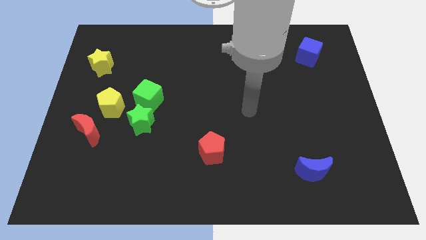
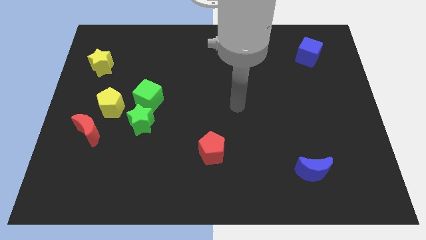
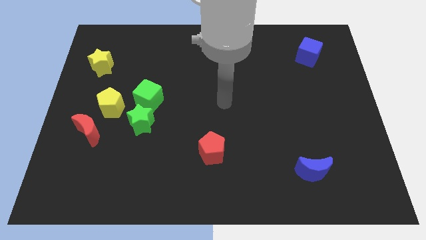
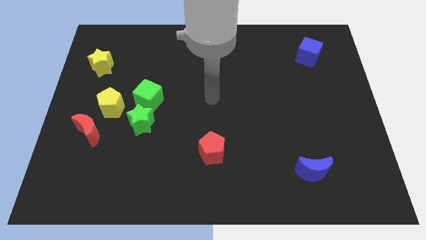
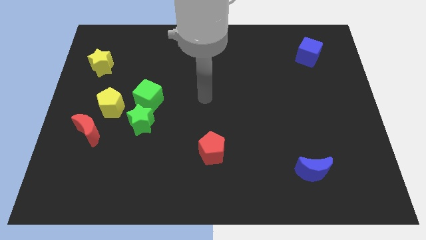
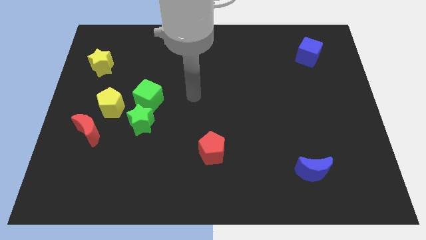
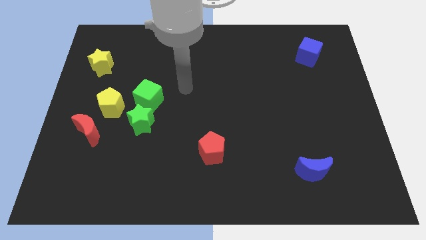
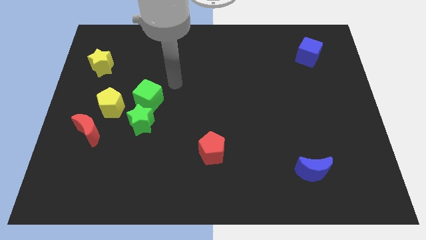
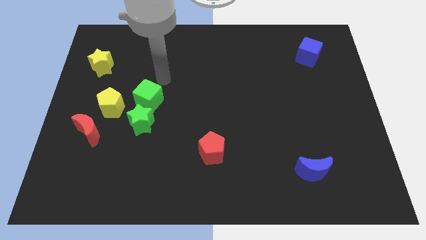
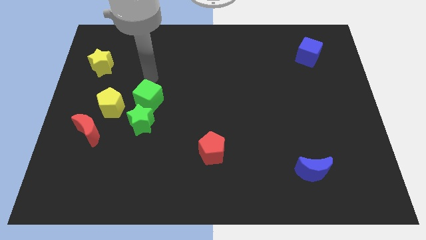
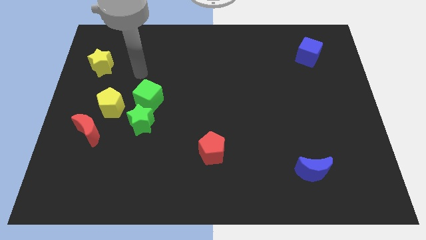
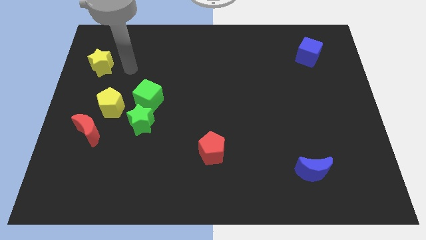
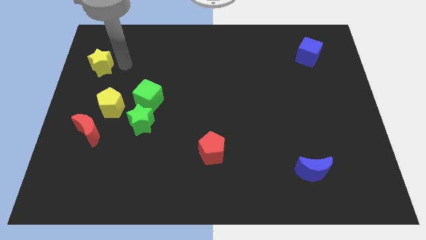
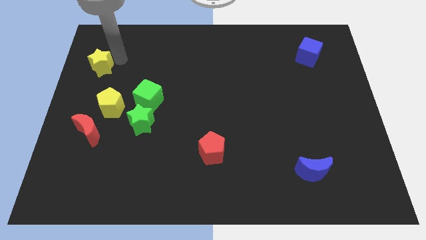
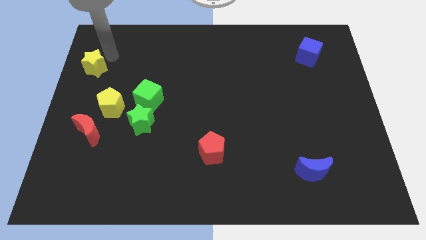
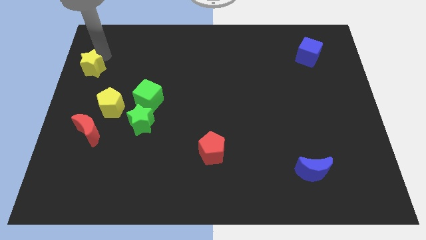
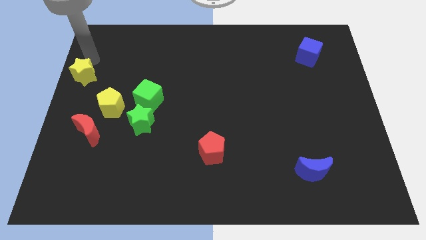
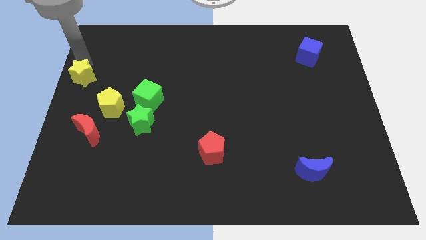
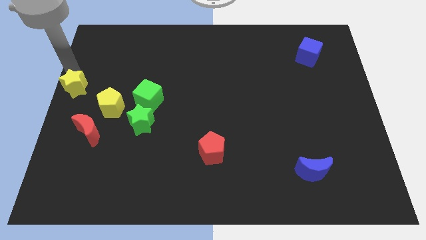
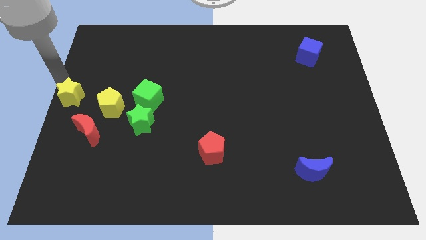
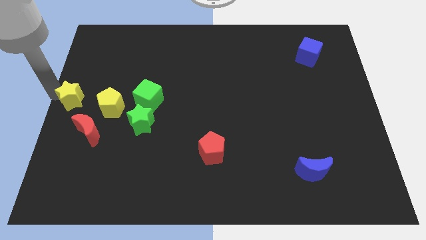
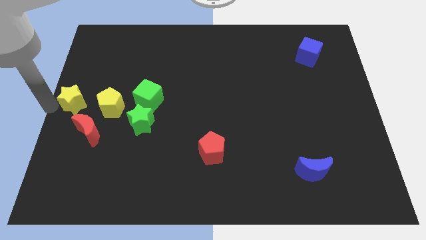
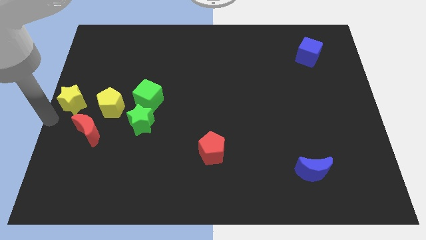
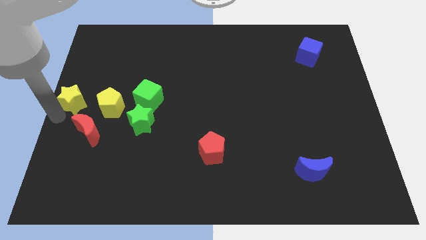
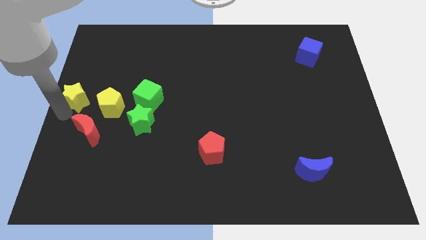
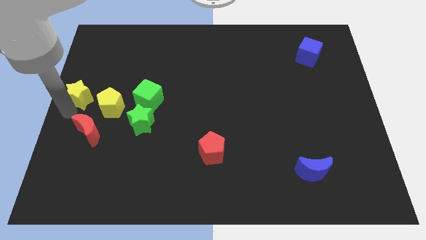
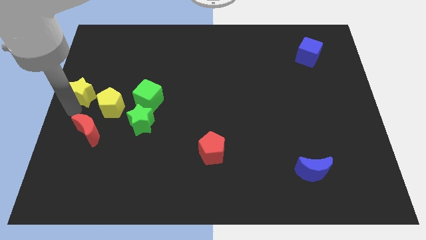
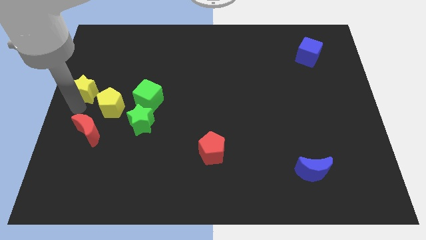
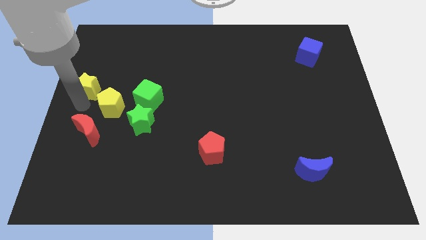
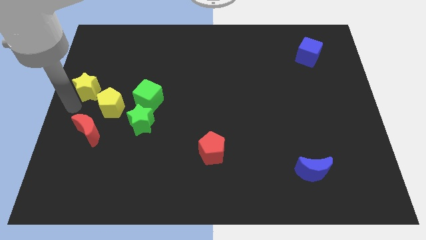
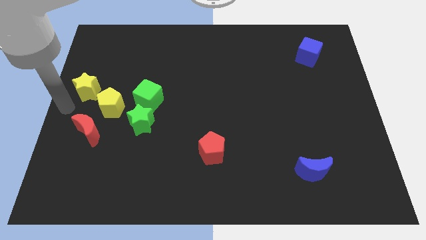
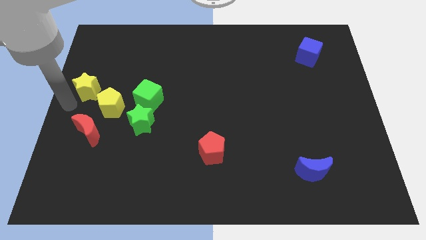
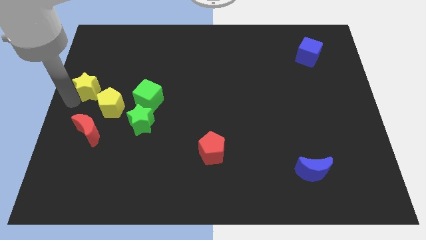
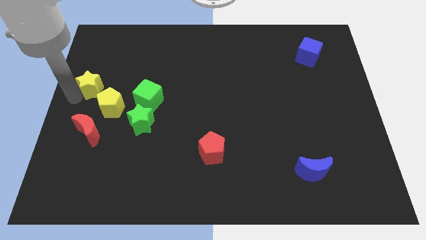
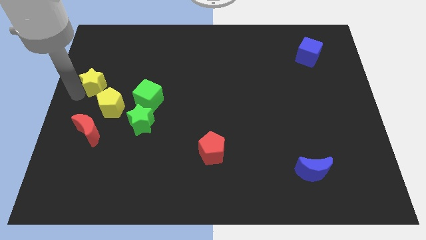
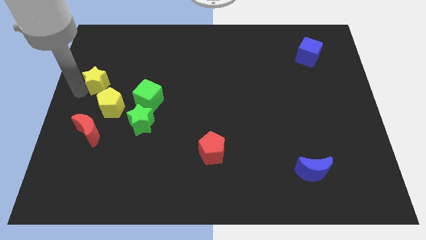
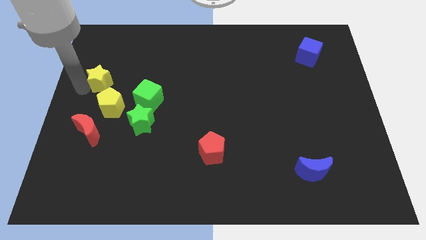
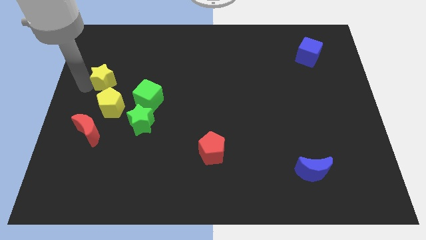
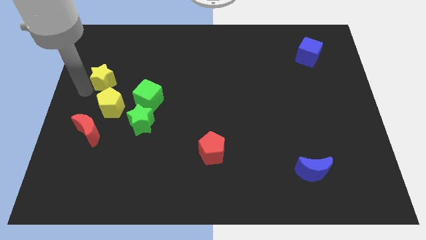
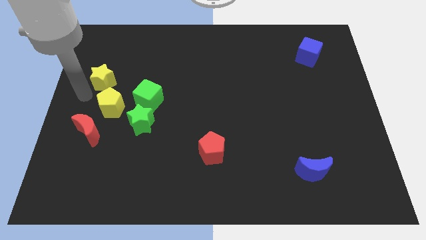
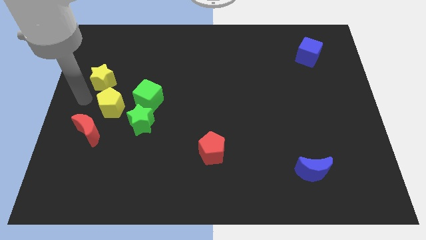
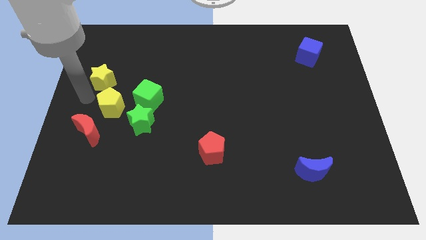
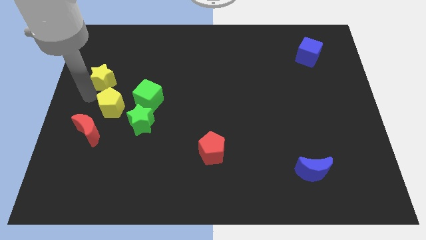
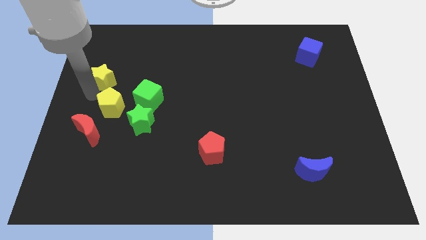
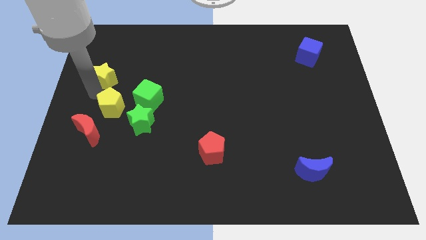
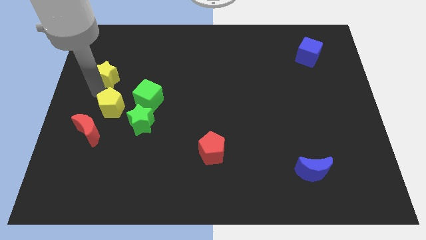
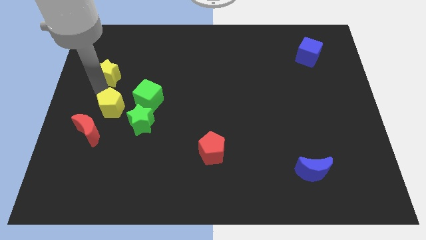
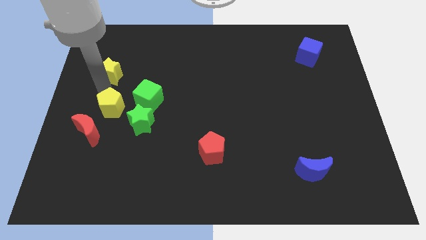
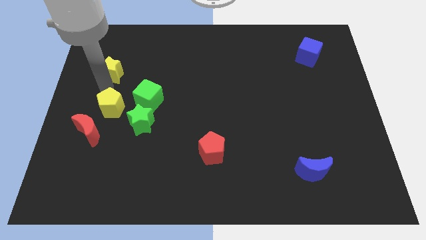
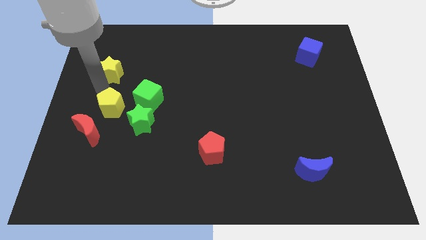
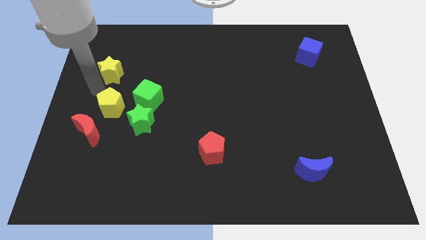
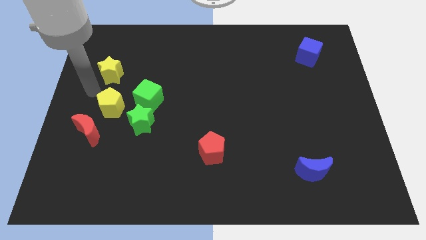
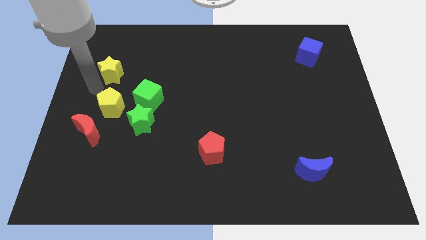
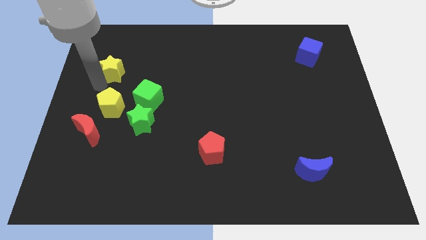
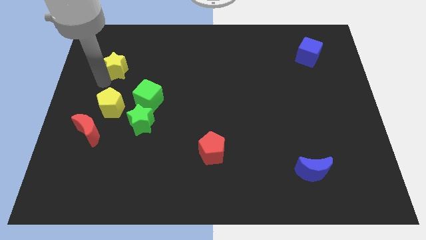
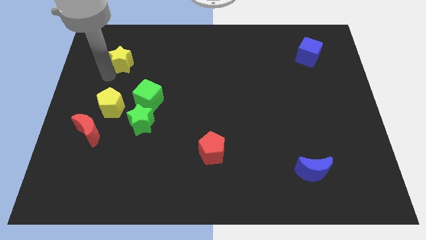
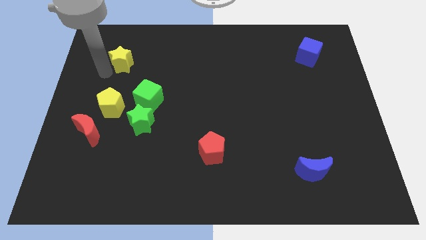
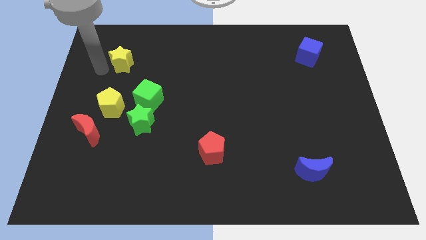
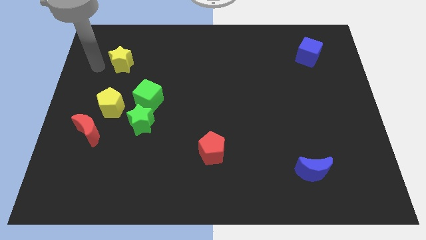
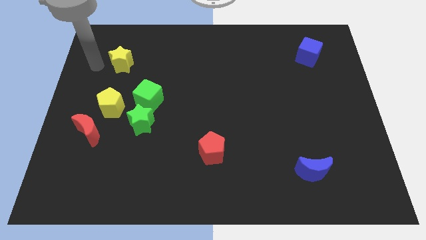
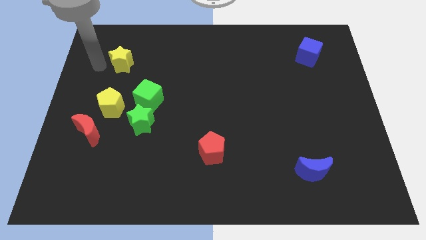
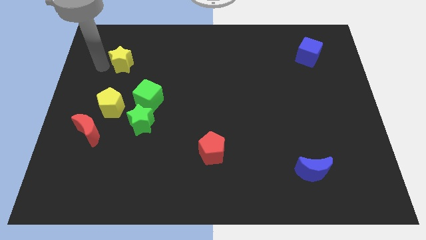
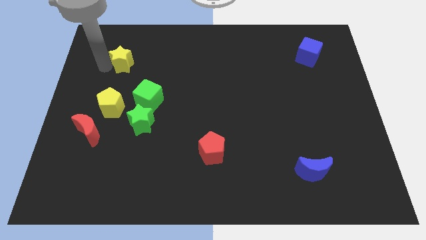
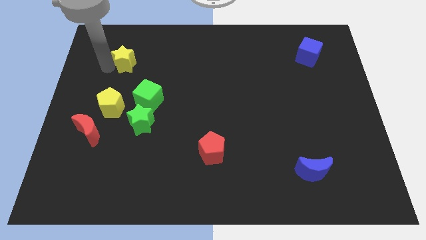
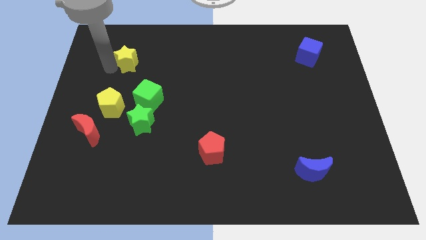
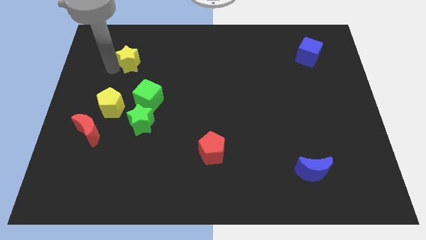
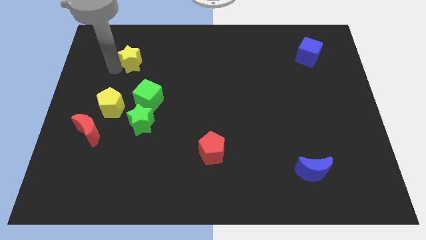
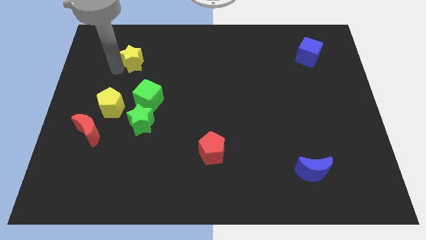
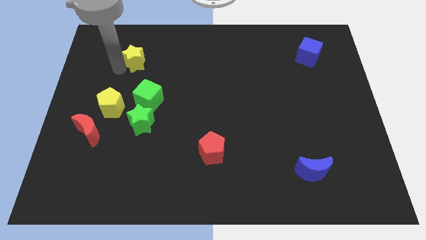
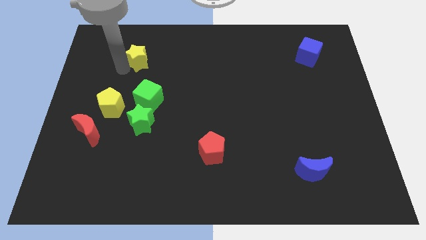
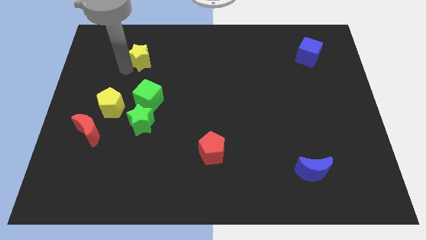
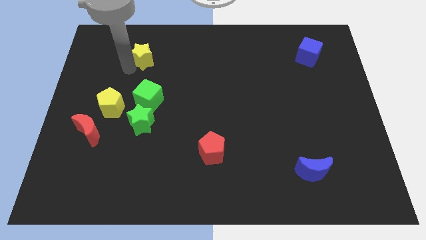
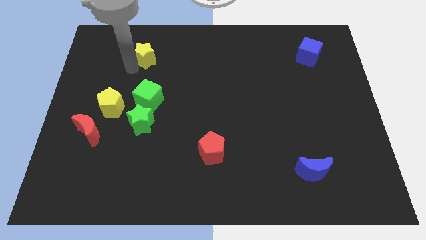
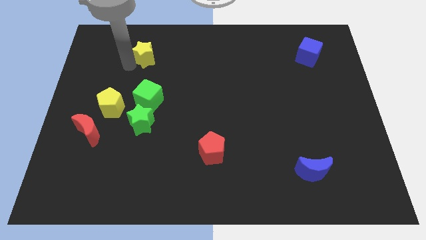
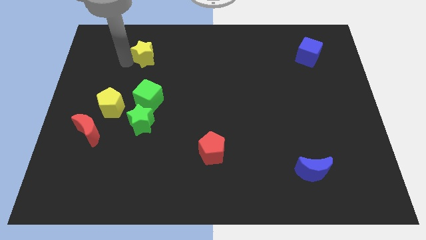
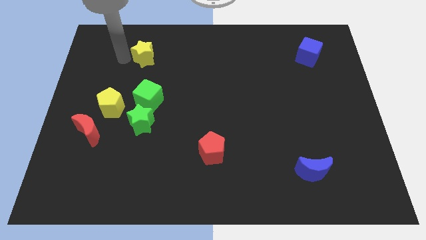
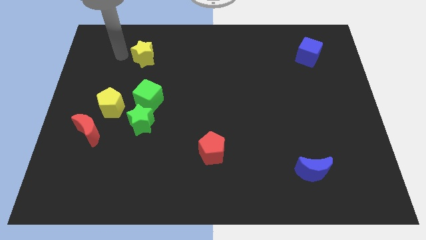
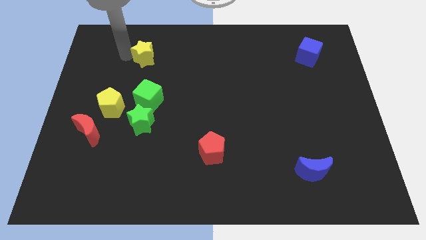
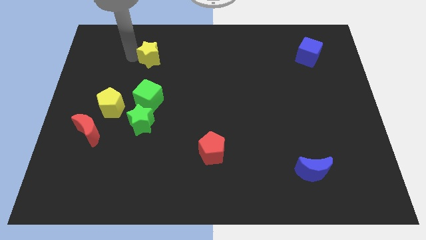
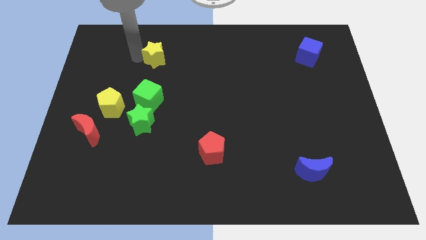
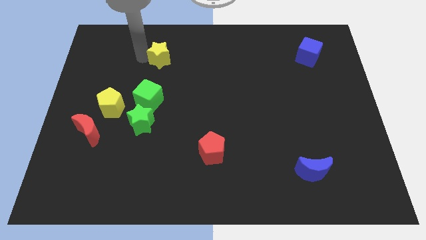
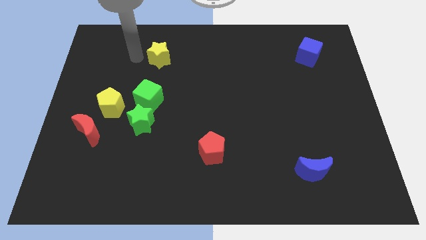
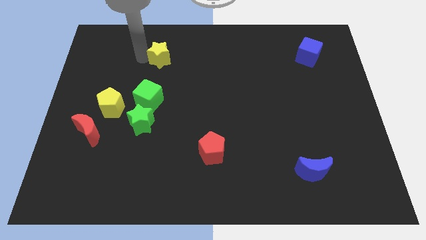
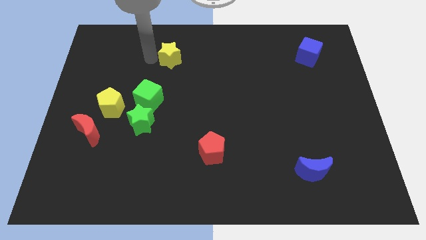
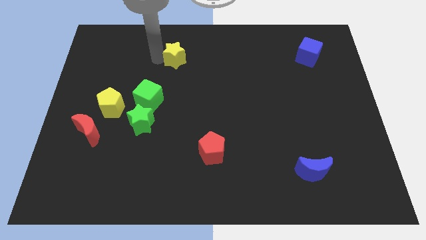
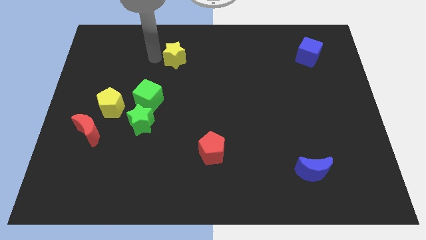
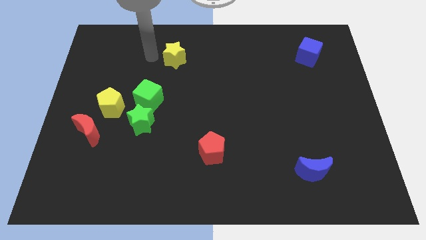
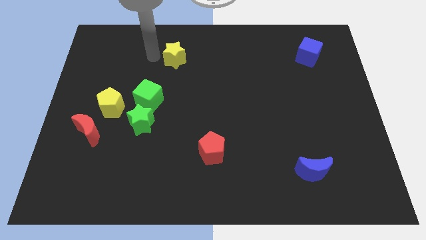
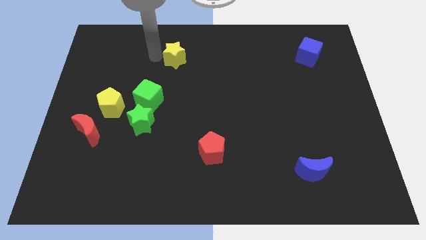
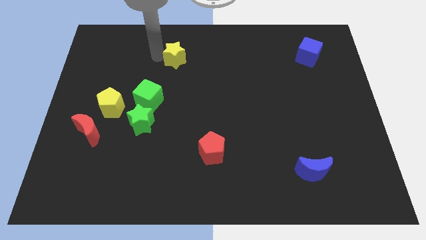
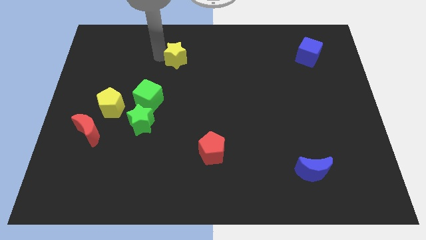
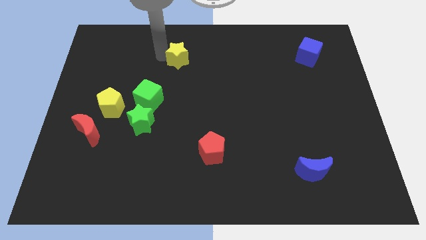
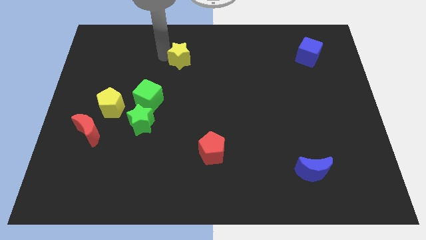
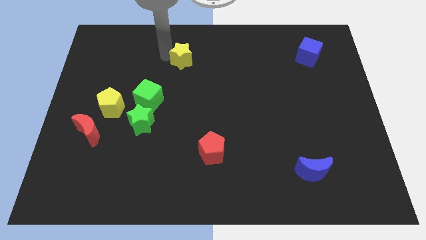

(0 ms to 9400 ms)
slide the yellow star right
